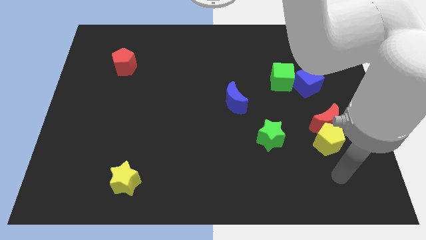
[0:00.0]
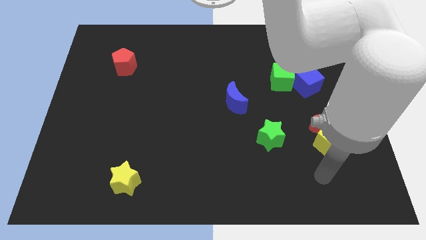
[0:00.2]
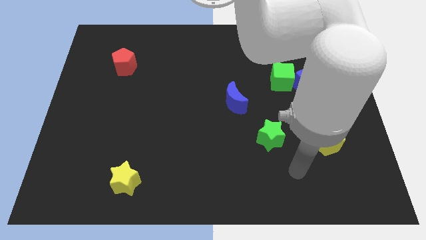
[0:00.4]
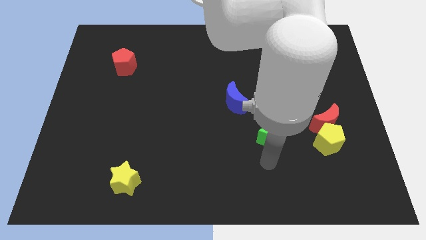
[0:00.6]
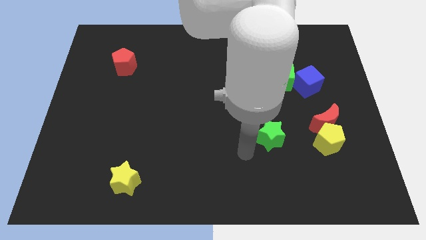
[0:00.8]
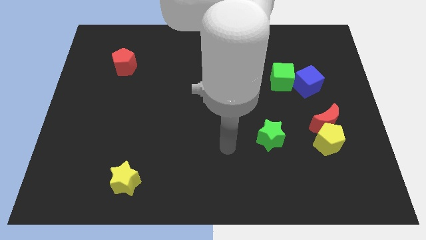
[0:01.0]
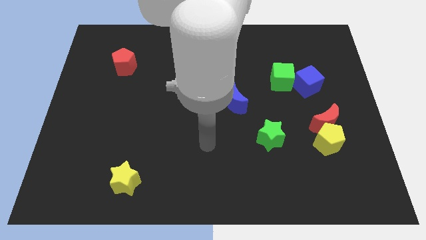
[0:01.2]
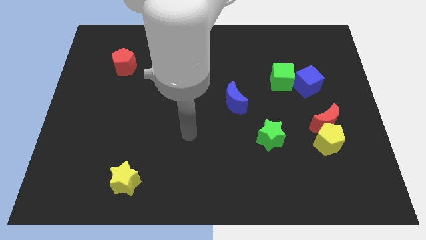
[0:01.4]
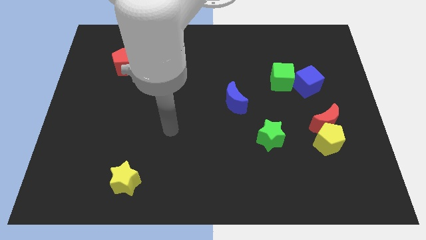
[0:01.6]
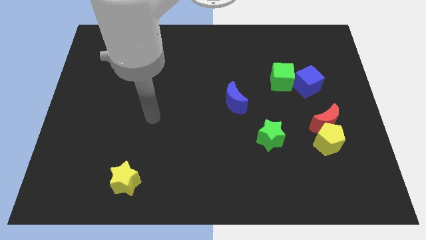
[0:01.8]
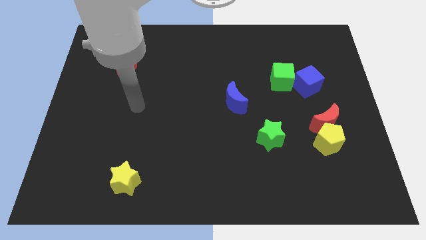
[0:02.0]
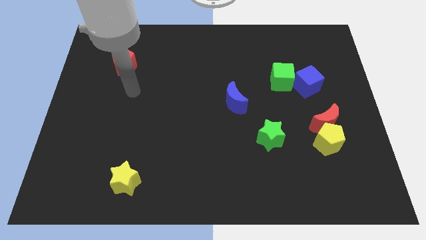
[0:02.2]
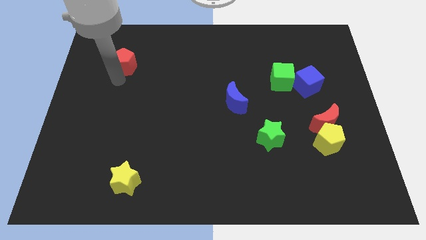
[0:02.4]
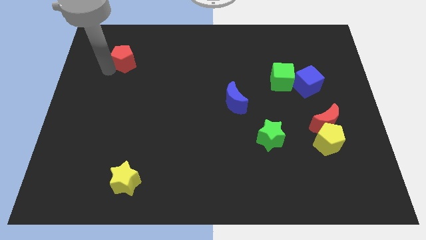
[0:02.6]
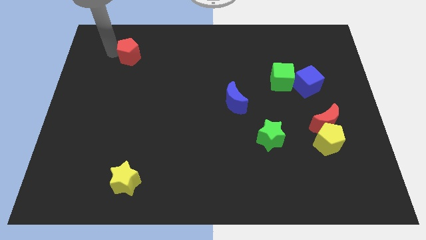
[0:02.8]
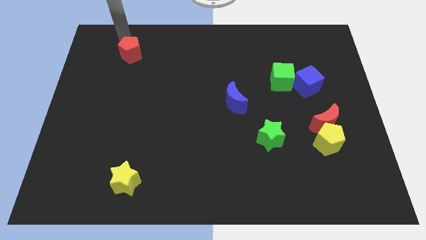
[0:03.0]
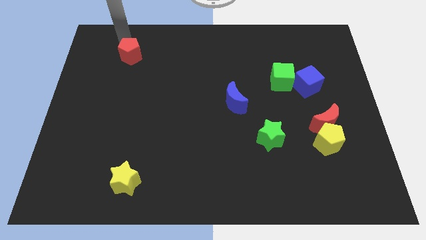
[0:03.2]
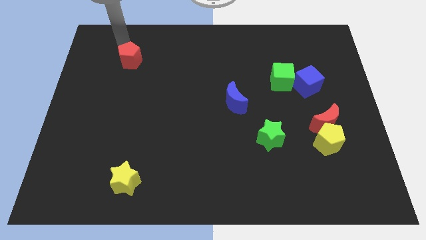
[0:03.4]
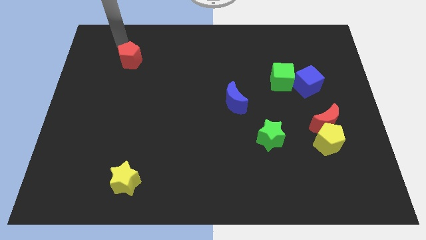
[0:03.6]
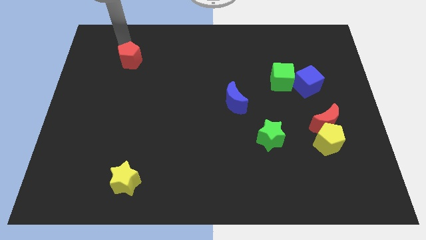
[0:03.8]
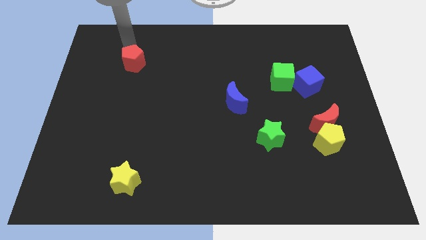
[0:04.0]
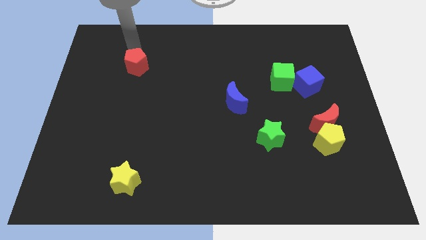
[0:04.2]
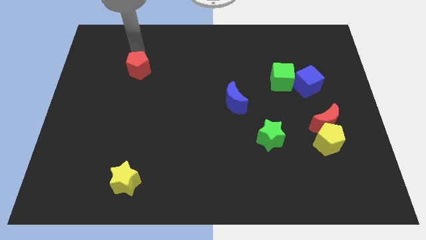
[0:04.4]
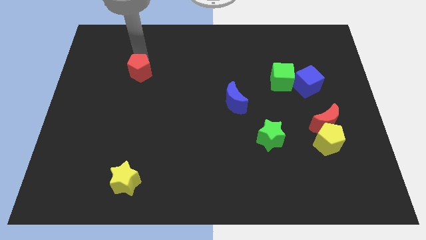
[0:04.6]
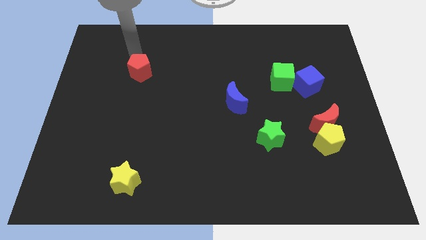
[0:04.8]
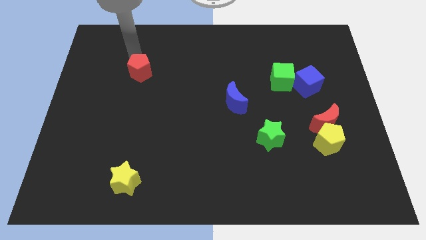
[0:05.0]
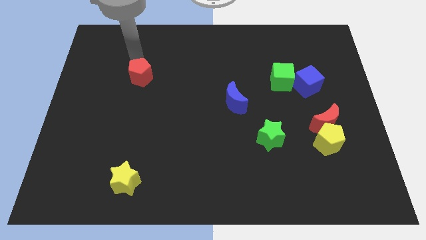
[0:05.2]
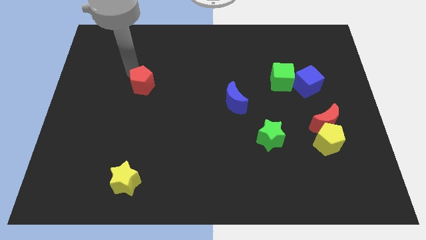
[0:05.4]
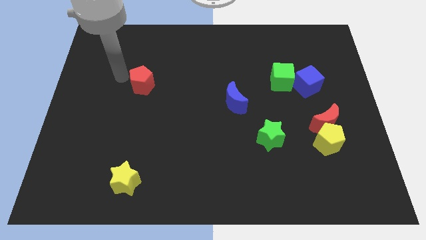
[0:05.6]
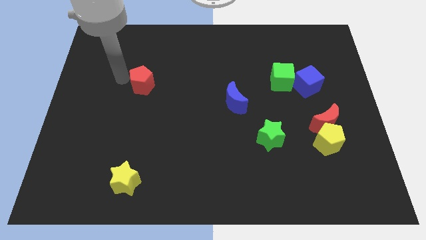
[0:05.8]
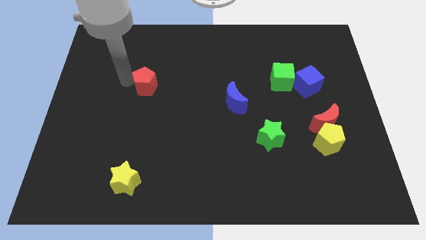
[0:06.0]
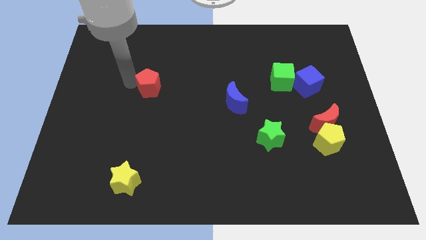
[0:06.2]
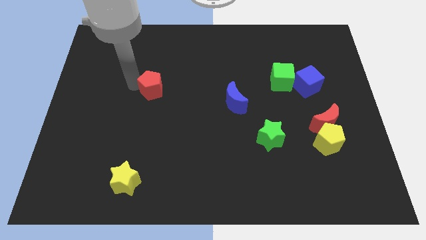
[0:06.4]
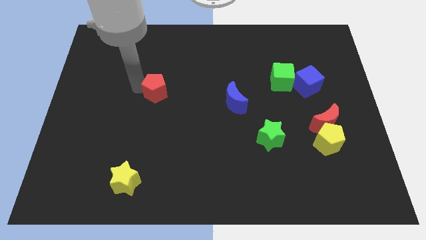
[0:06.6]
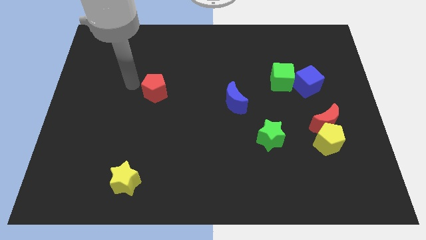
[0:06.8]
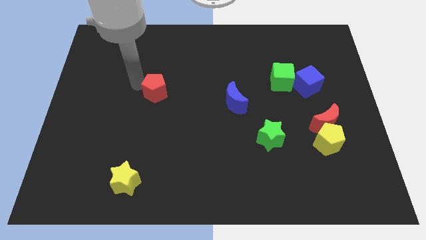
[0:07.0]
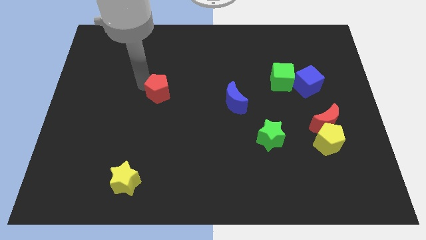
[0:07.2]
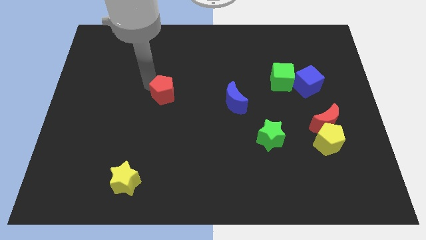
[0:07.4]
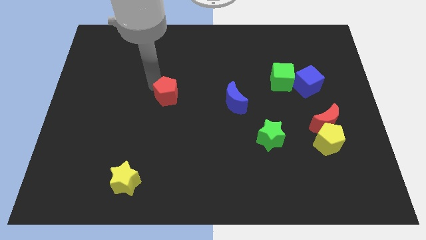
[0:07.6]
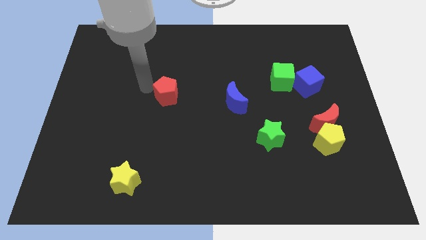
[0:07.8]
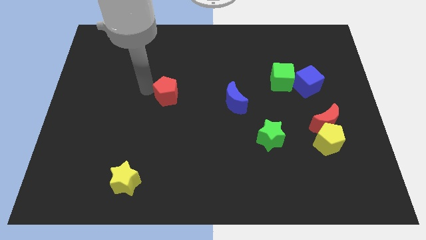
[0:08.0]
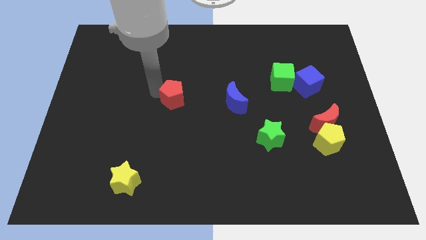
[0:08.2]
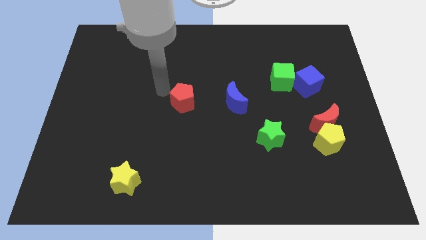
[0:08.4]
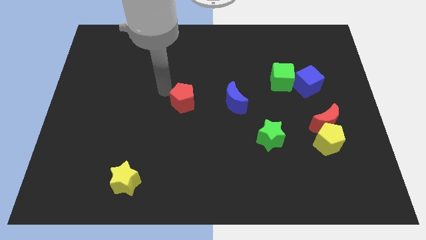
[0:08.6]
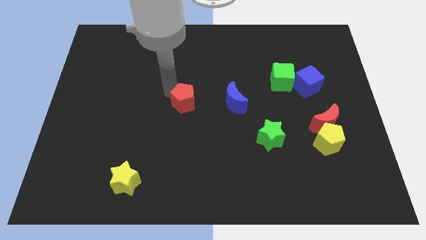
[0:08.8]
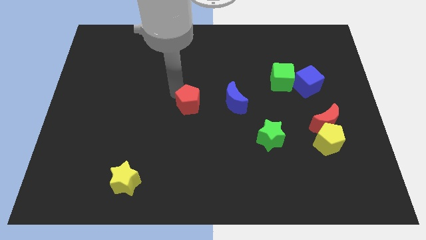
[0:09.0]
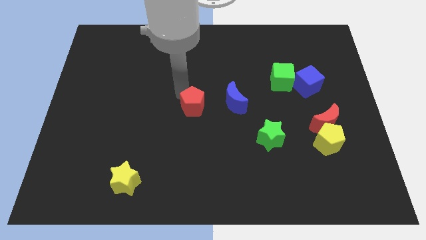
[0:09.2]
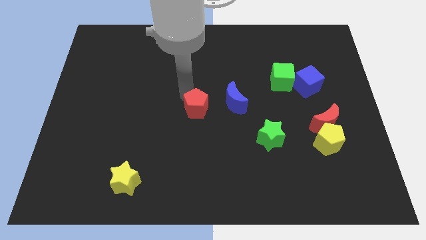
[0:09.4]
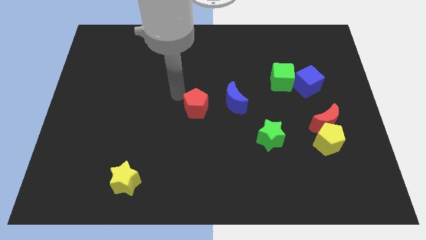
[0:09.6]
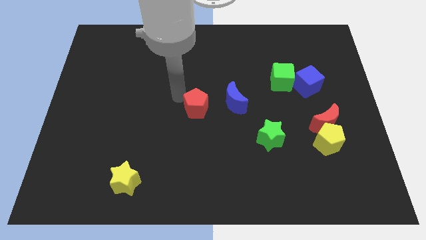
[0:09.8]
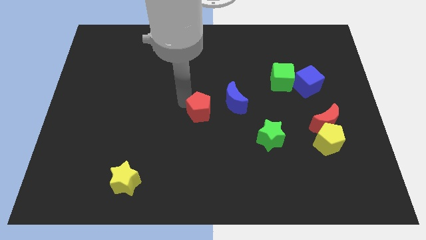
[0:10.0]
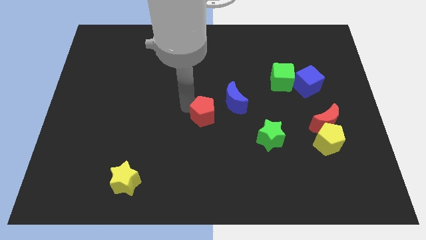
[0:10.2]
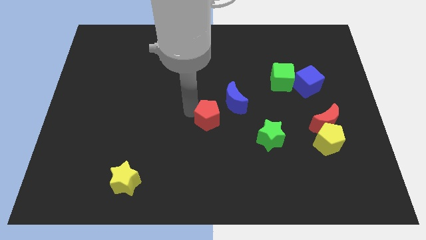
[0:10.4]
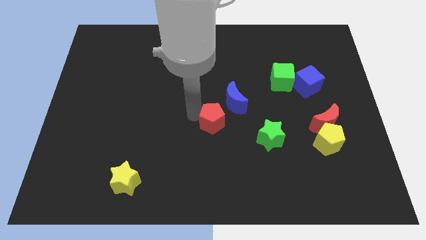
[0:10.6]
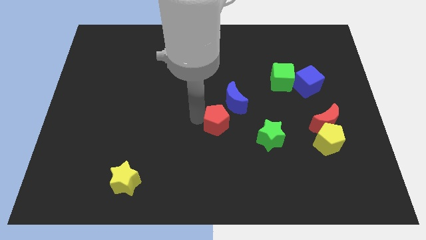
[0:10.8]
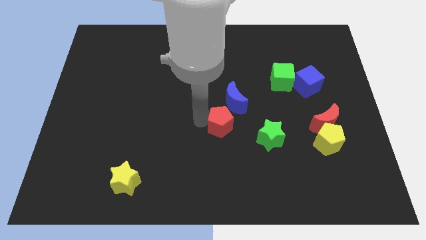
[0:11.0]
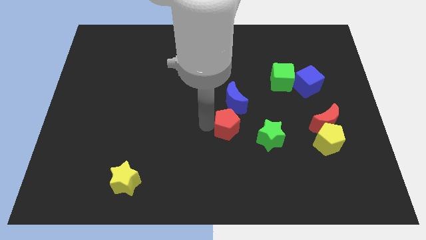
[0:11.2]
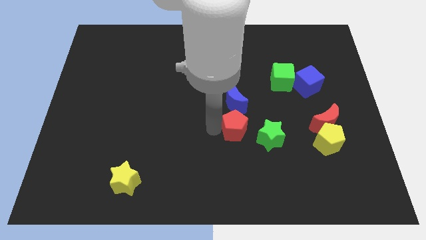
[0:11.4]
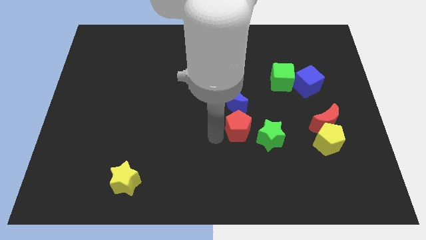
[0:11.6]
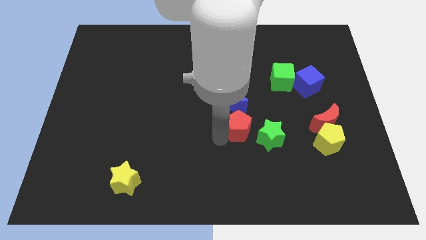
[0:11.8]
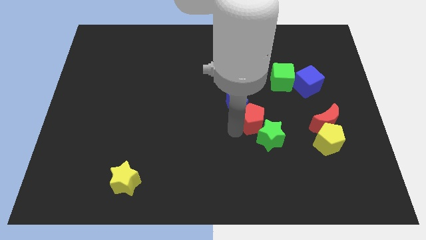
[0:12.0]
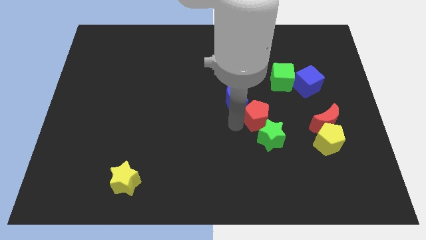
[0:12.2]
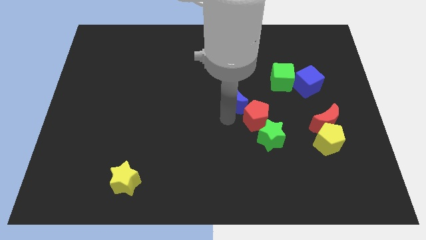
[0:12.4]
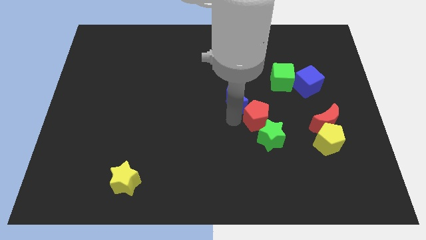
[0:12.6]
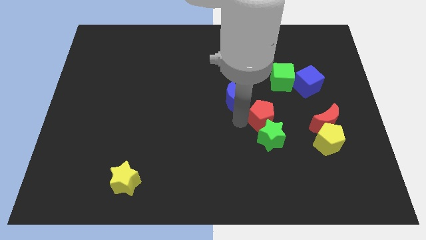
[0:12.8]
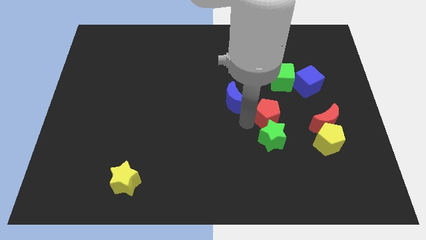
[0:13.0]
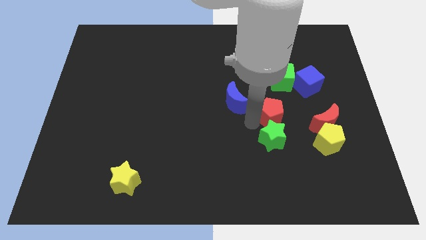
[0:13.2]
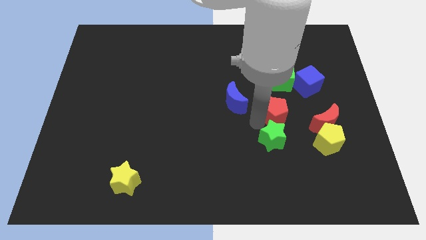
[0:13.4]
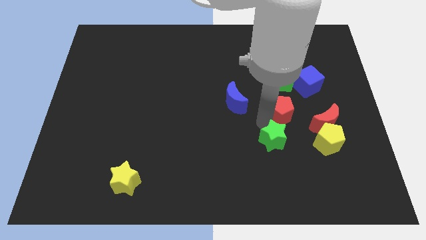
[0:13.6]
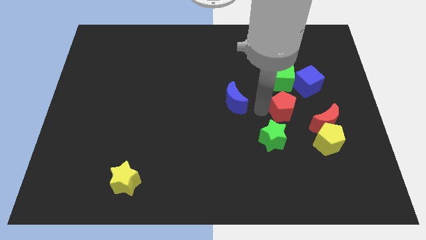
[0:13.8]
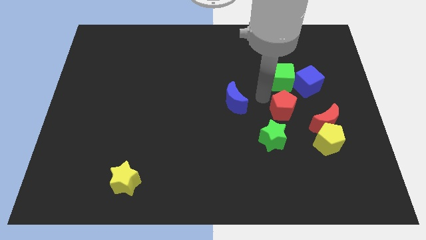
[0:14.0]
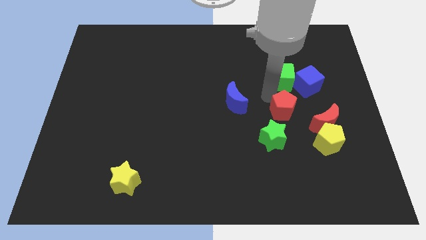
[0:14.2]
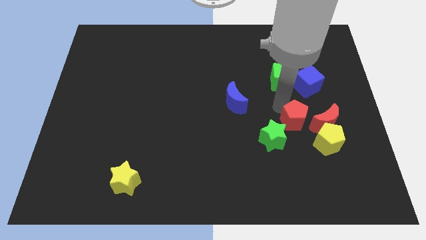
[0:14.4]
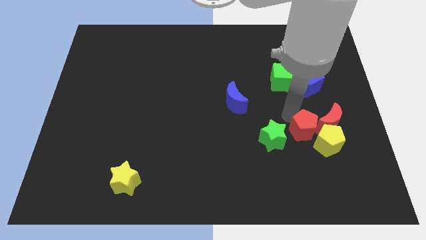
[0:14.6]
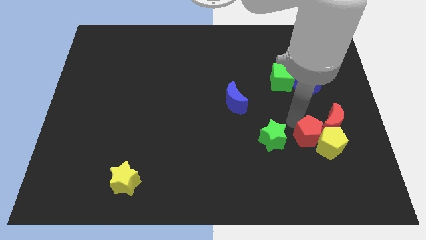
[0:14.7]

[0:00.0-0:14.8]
move the red pentagon next to the yellow pentagon

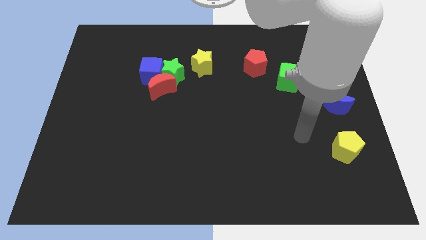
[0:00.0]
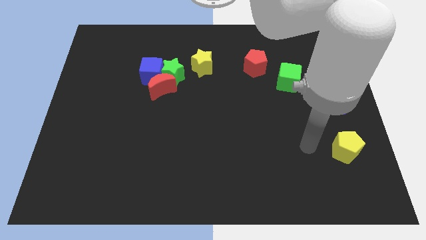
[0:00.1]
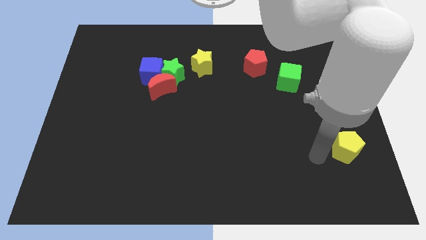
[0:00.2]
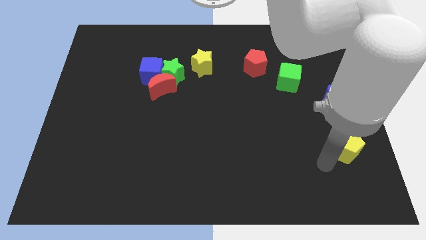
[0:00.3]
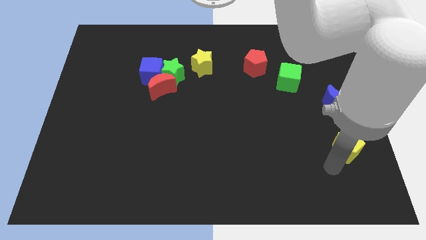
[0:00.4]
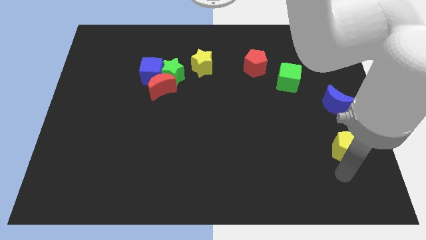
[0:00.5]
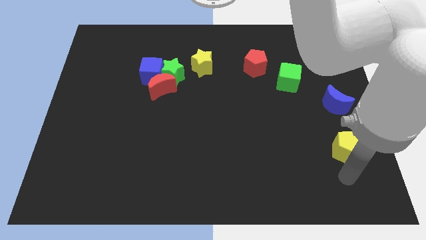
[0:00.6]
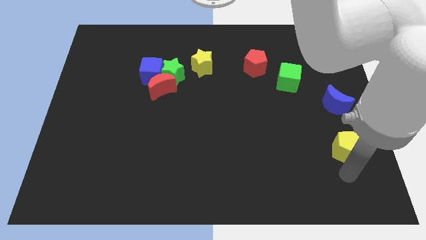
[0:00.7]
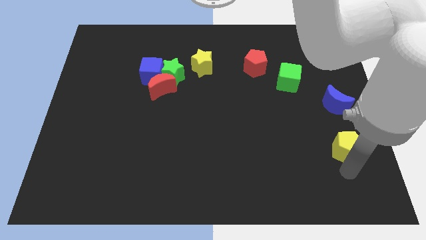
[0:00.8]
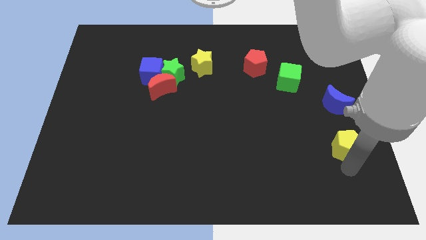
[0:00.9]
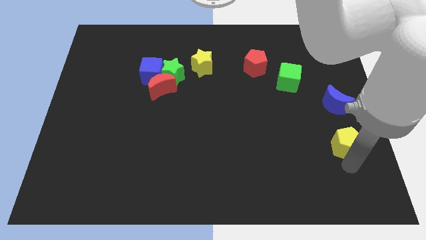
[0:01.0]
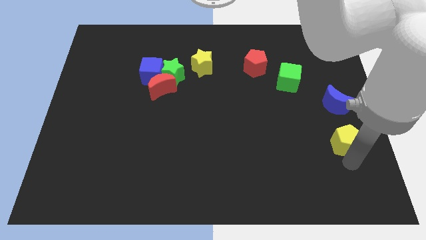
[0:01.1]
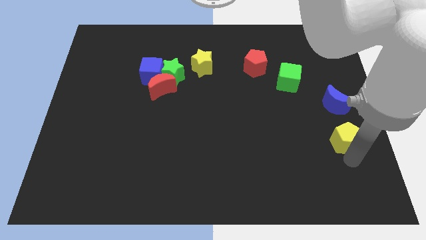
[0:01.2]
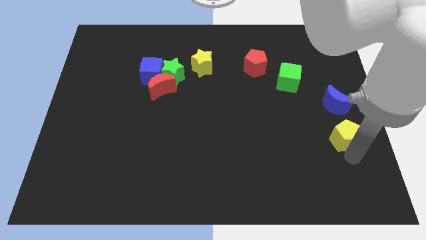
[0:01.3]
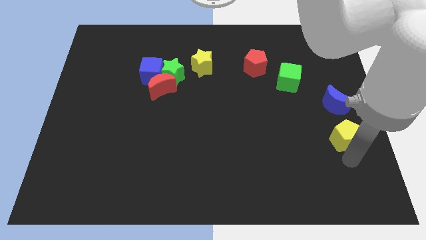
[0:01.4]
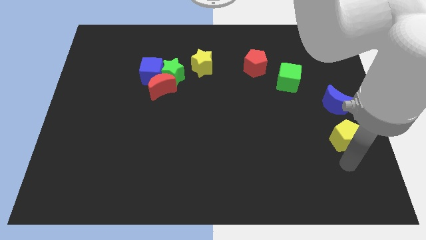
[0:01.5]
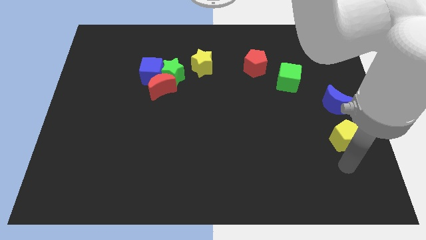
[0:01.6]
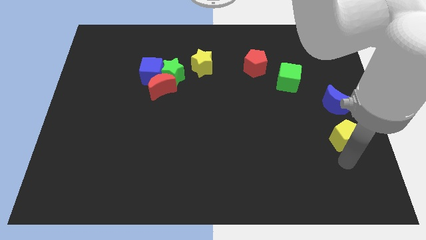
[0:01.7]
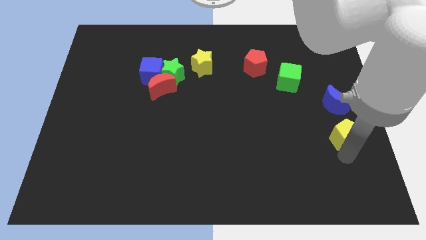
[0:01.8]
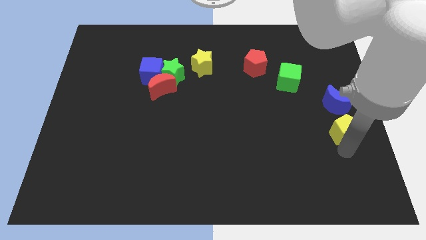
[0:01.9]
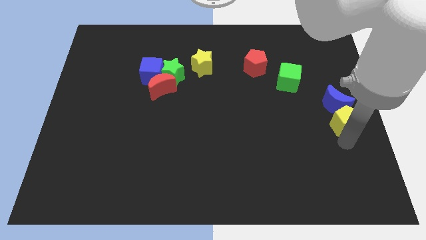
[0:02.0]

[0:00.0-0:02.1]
push the yellow pentagon next to the blue moon
